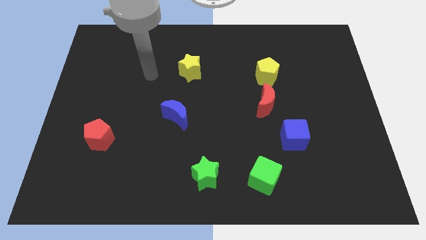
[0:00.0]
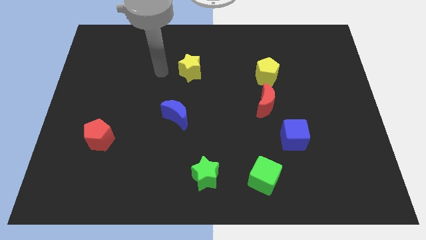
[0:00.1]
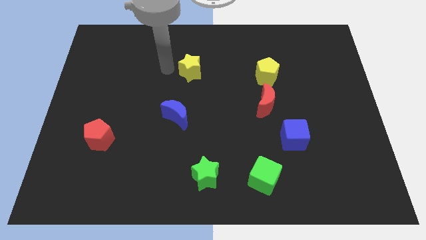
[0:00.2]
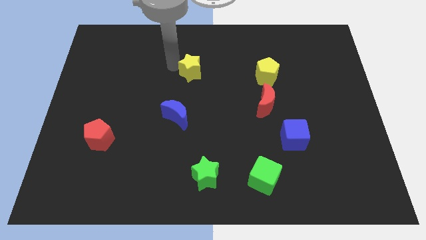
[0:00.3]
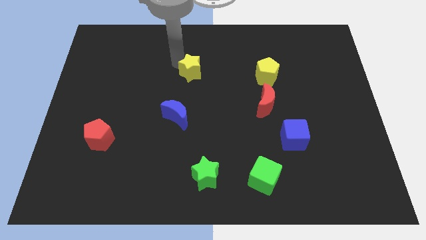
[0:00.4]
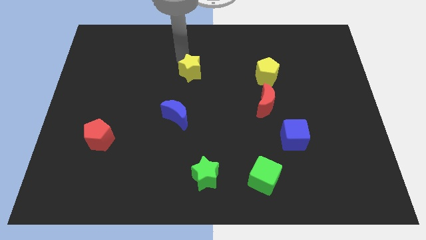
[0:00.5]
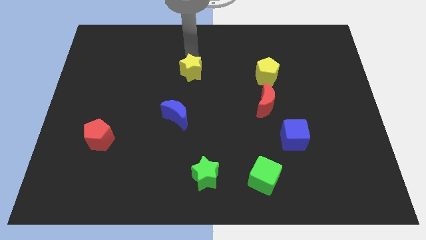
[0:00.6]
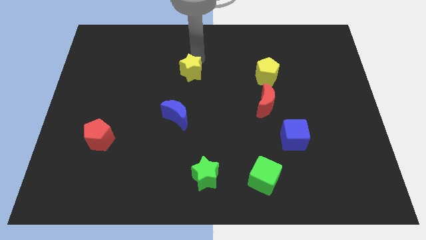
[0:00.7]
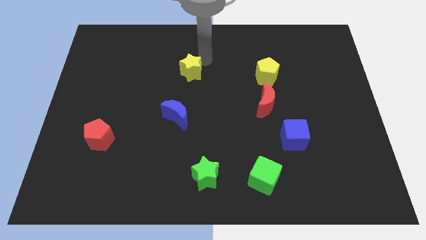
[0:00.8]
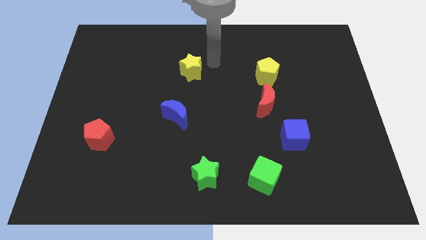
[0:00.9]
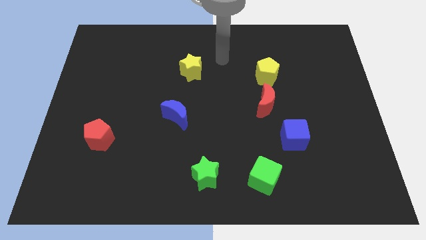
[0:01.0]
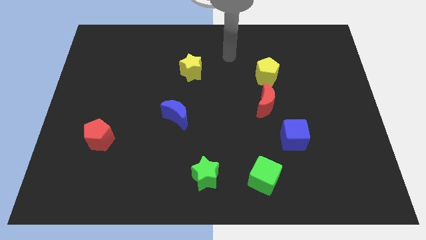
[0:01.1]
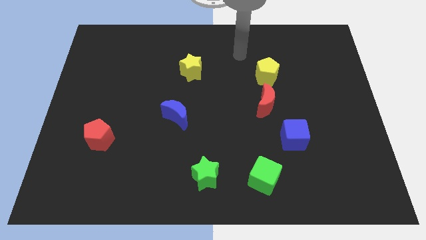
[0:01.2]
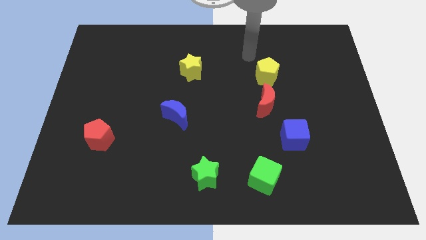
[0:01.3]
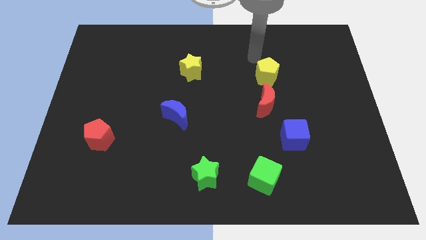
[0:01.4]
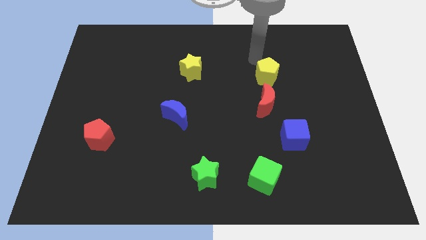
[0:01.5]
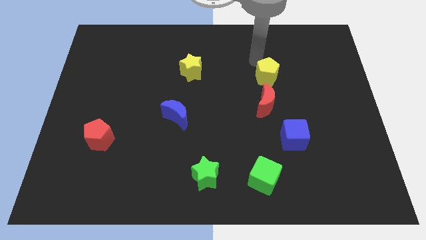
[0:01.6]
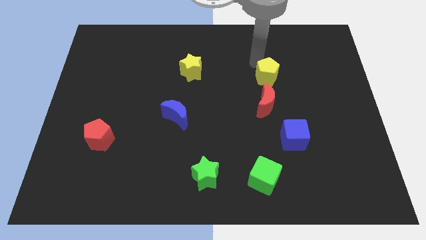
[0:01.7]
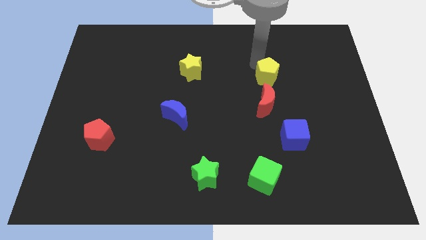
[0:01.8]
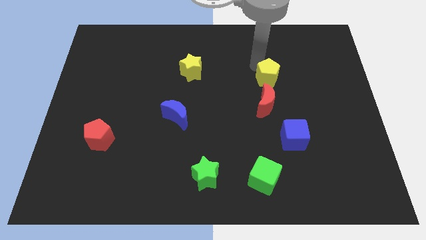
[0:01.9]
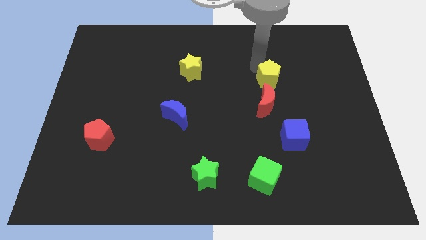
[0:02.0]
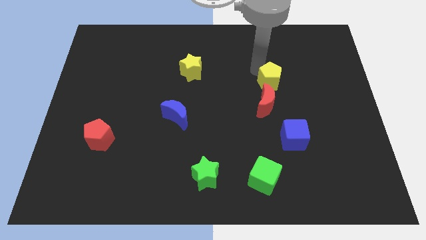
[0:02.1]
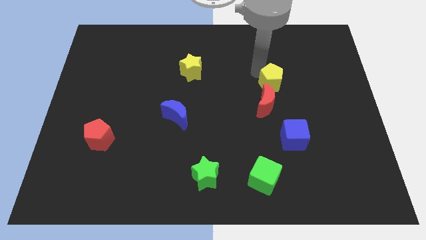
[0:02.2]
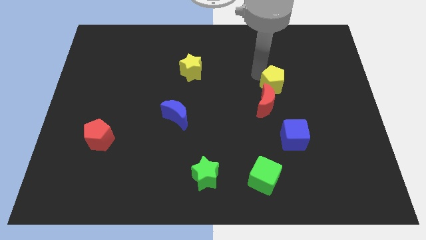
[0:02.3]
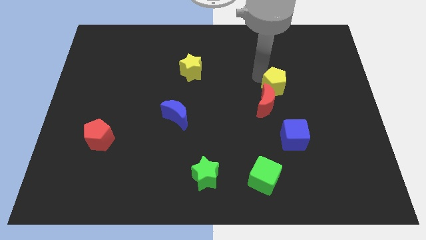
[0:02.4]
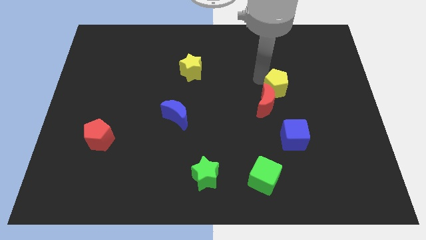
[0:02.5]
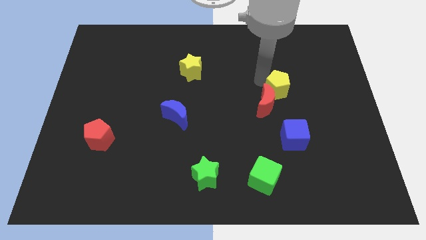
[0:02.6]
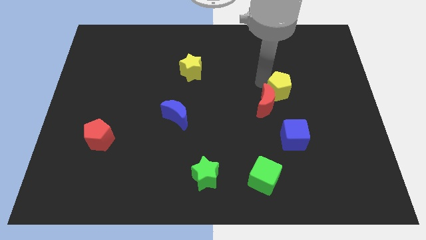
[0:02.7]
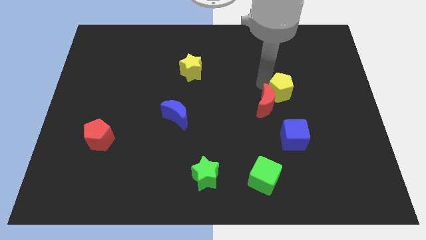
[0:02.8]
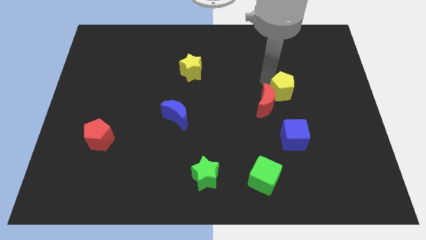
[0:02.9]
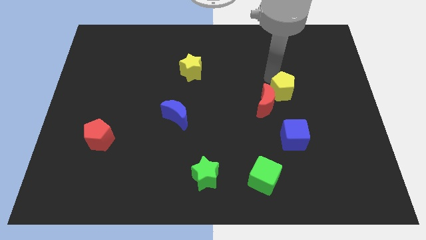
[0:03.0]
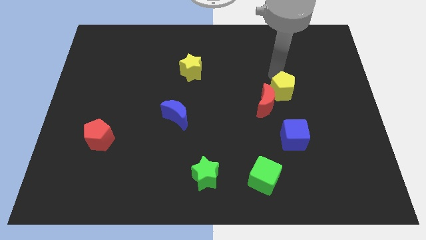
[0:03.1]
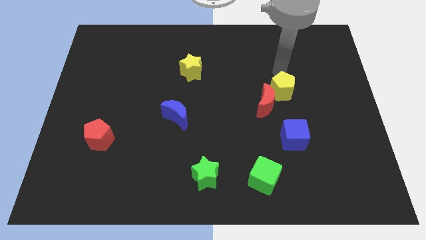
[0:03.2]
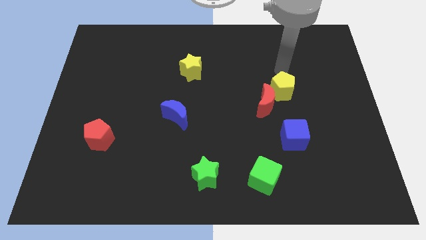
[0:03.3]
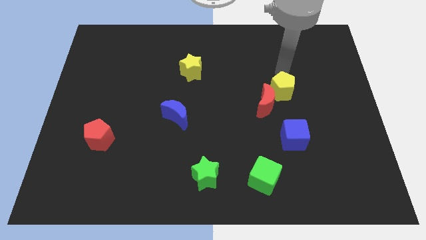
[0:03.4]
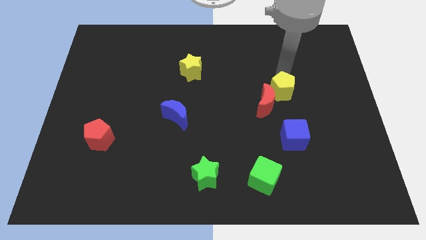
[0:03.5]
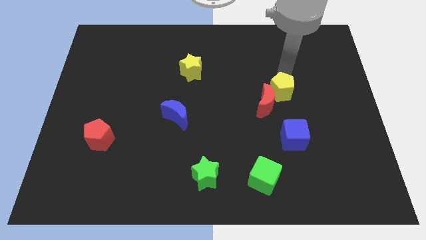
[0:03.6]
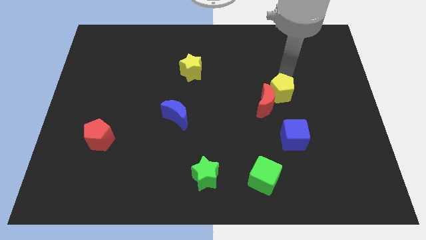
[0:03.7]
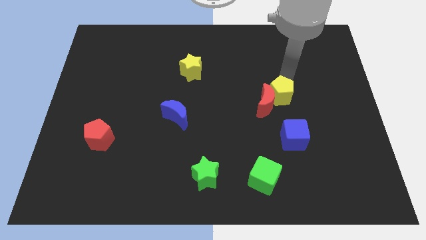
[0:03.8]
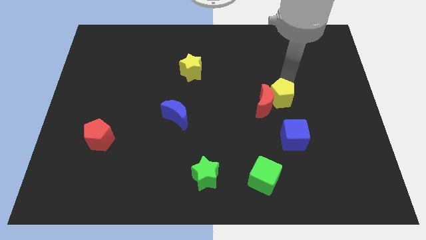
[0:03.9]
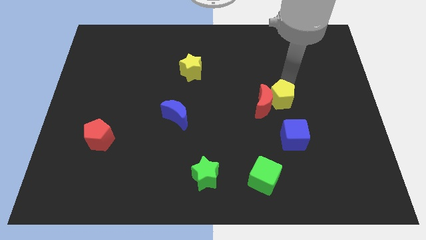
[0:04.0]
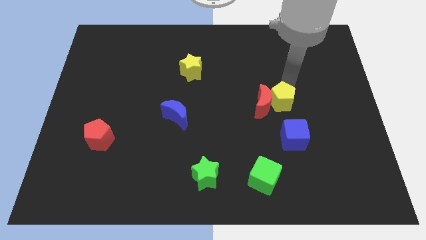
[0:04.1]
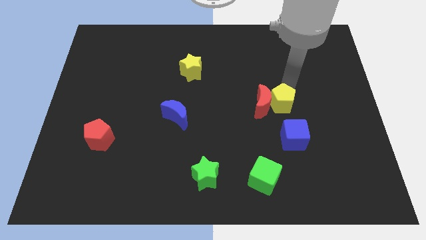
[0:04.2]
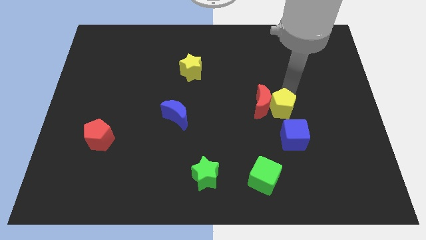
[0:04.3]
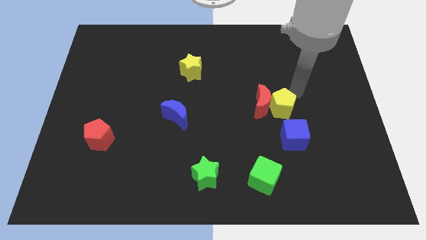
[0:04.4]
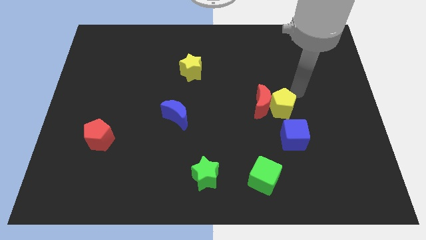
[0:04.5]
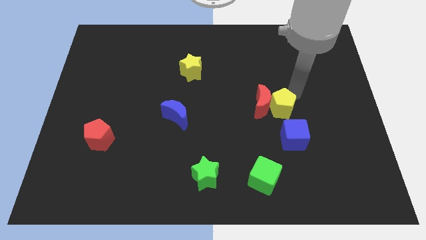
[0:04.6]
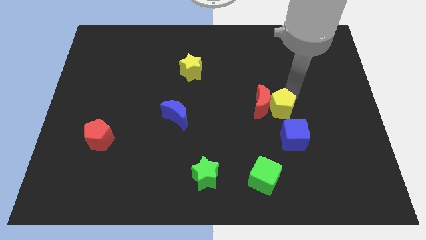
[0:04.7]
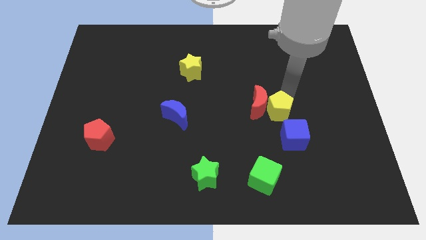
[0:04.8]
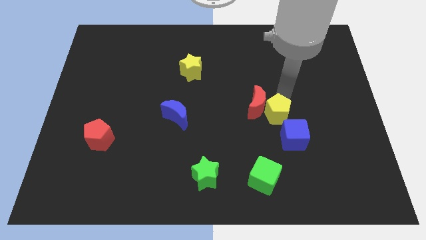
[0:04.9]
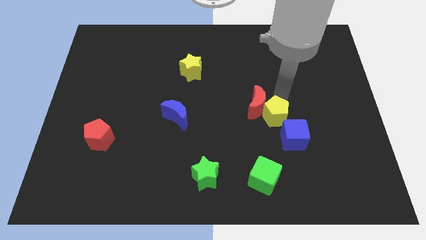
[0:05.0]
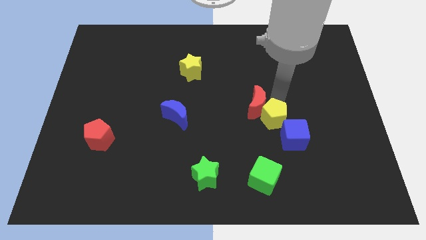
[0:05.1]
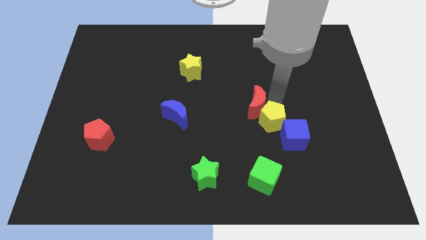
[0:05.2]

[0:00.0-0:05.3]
put the yellow pentagon to the left of the blue cube

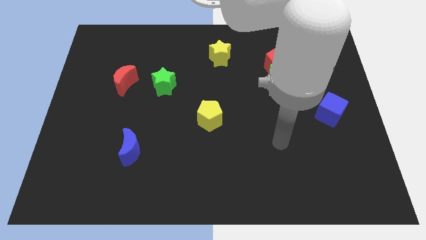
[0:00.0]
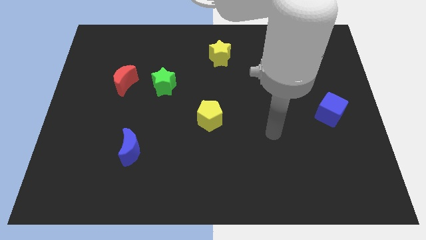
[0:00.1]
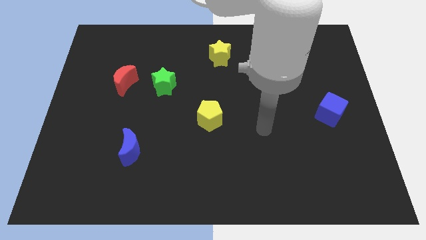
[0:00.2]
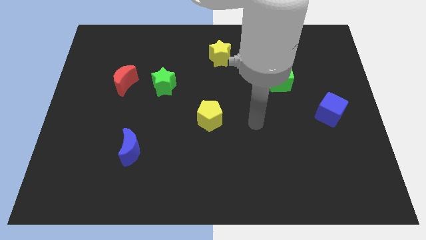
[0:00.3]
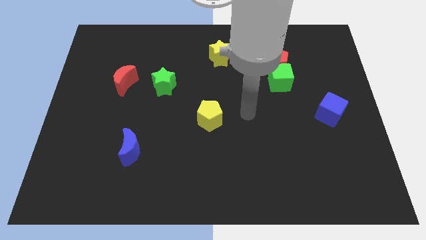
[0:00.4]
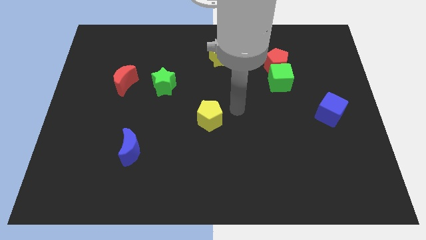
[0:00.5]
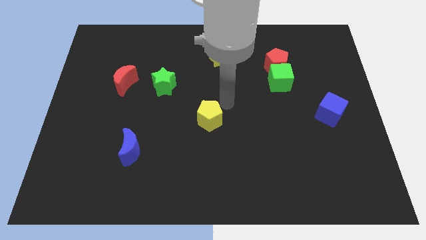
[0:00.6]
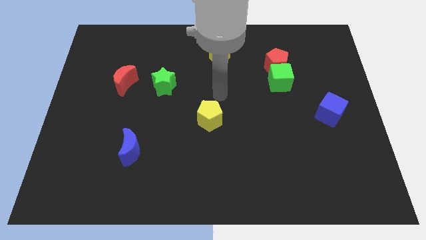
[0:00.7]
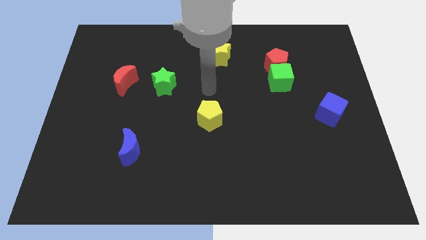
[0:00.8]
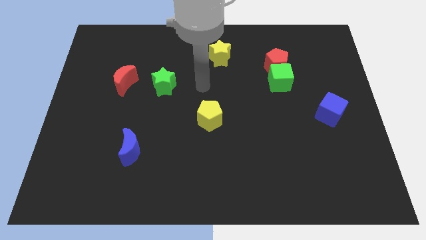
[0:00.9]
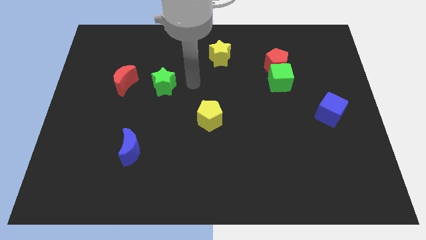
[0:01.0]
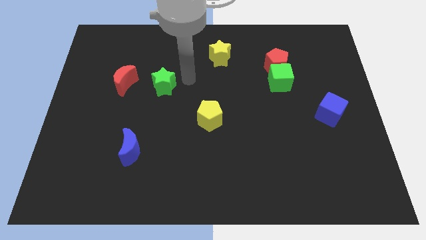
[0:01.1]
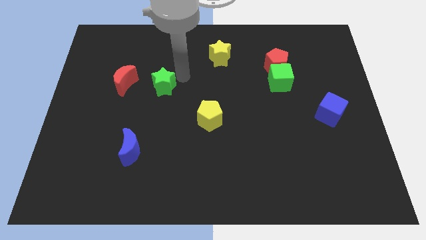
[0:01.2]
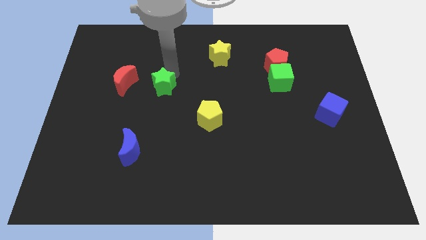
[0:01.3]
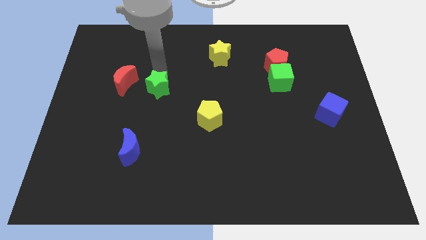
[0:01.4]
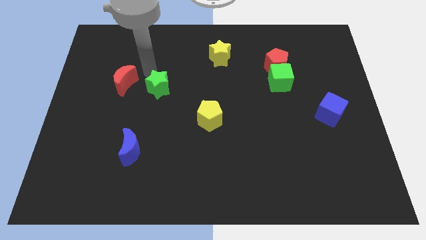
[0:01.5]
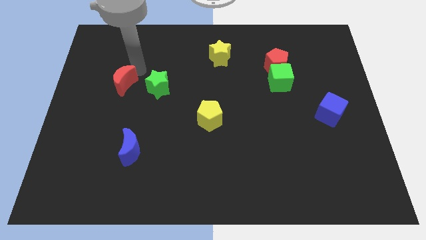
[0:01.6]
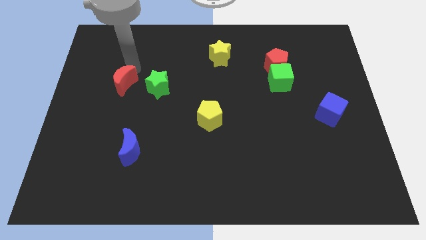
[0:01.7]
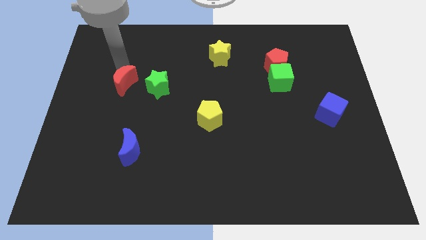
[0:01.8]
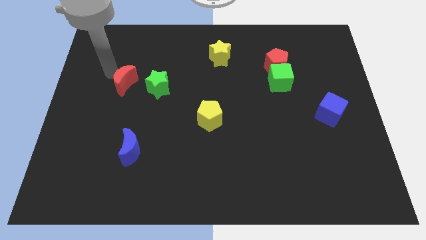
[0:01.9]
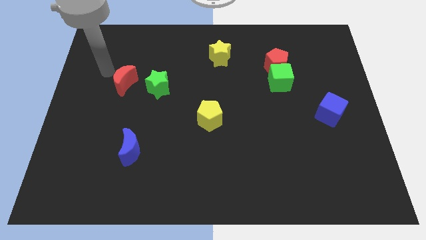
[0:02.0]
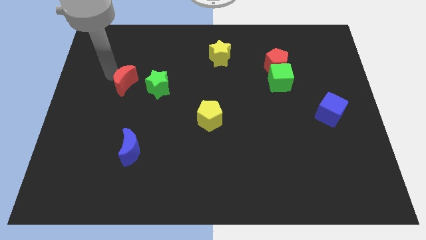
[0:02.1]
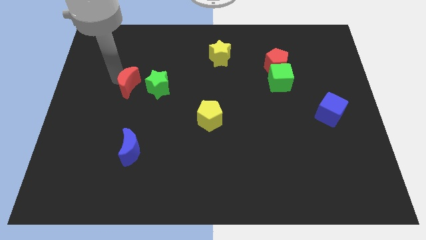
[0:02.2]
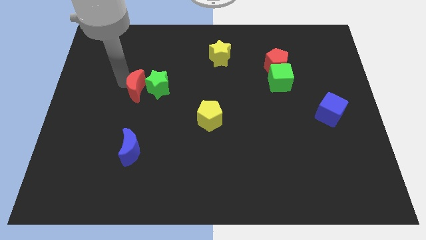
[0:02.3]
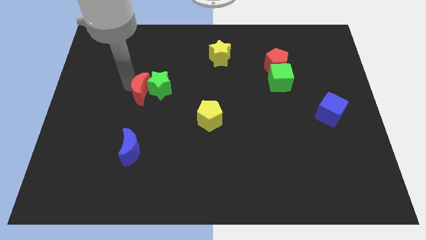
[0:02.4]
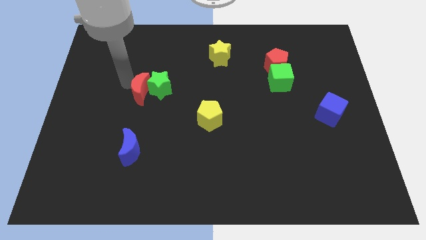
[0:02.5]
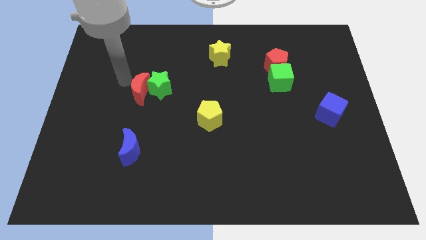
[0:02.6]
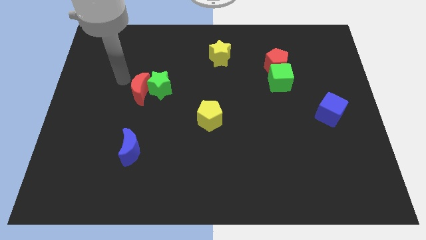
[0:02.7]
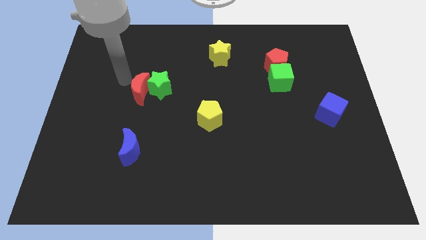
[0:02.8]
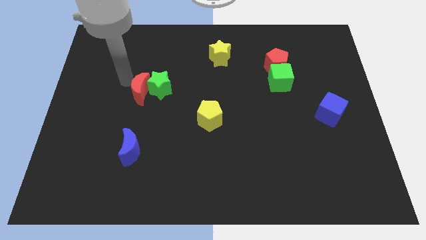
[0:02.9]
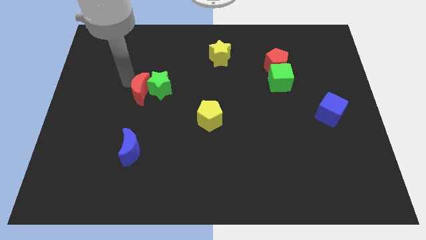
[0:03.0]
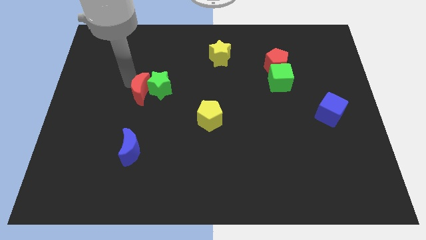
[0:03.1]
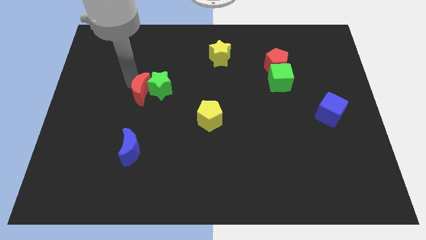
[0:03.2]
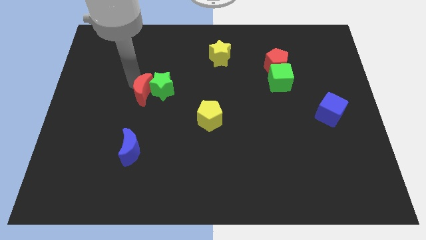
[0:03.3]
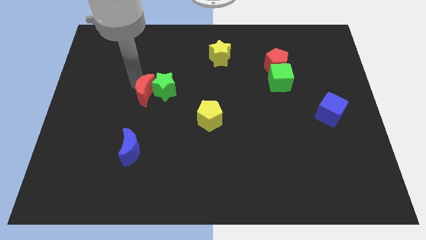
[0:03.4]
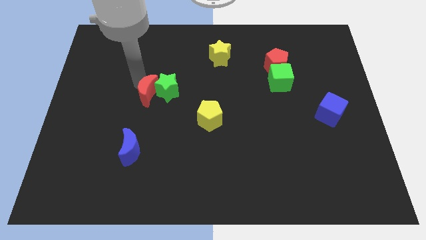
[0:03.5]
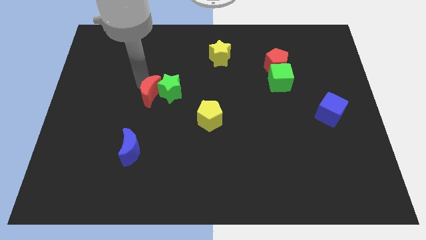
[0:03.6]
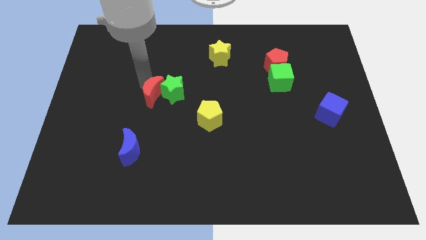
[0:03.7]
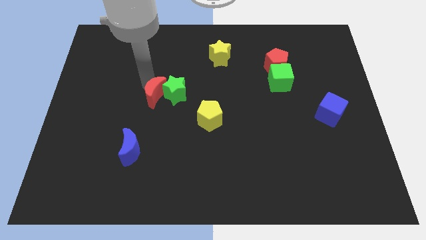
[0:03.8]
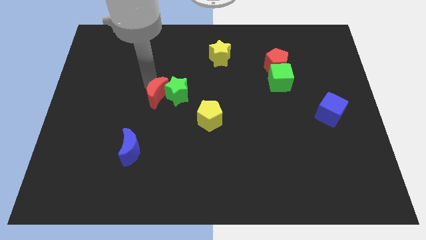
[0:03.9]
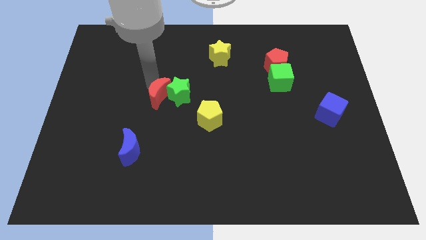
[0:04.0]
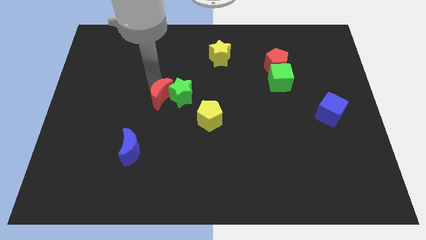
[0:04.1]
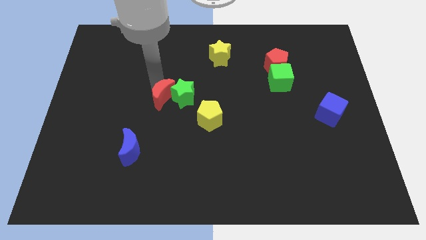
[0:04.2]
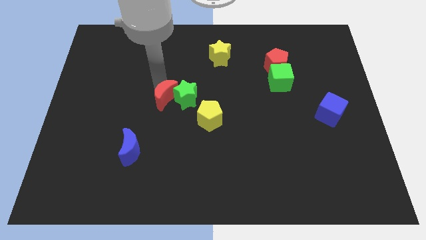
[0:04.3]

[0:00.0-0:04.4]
put the red moon to the top left side of the yellow pentagon
